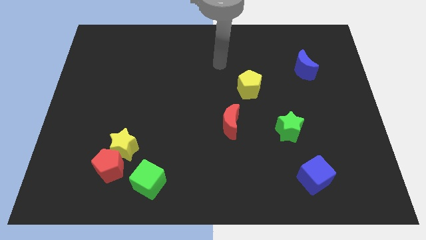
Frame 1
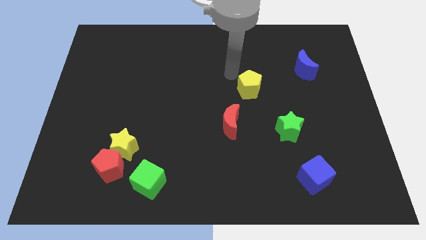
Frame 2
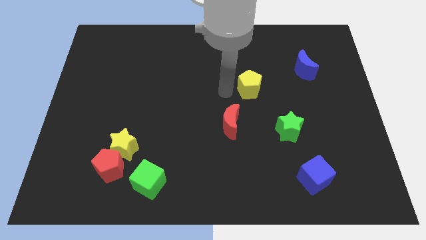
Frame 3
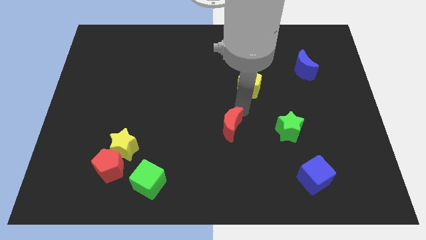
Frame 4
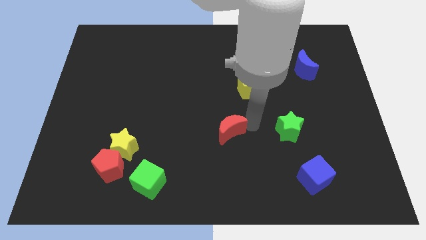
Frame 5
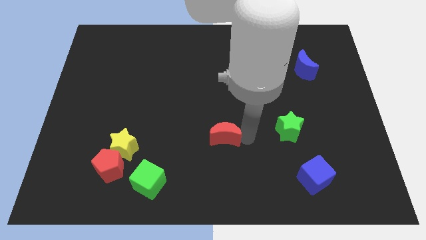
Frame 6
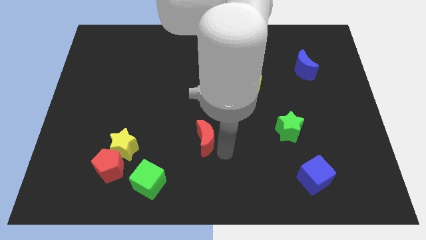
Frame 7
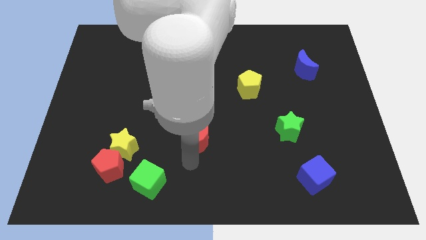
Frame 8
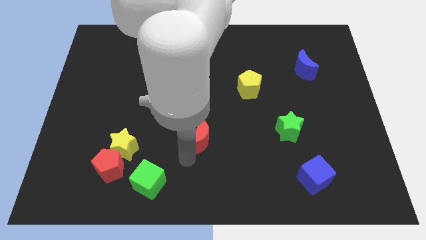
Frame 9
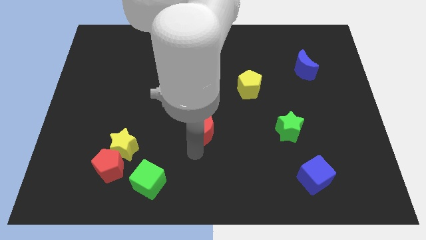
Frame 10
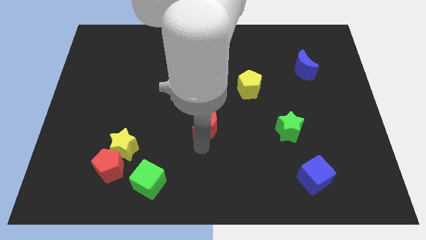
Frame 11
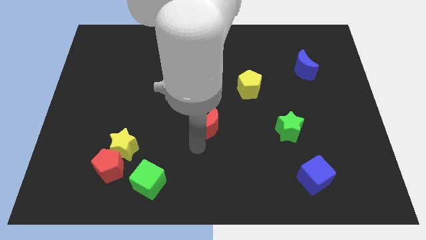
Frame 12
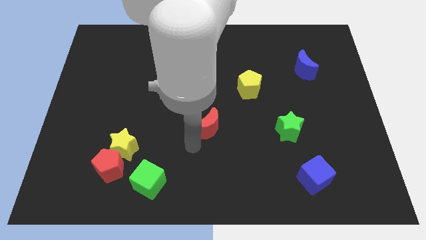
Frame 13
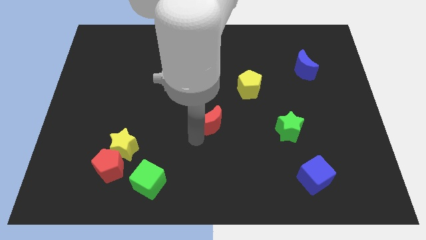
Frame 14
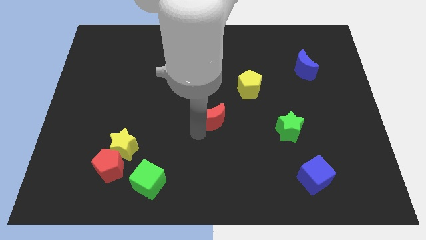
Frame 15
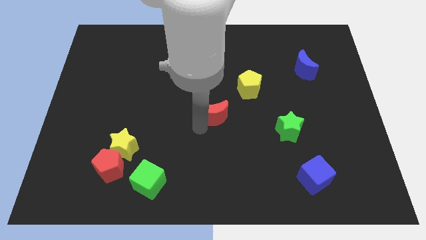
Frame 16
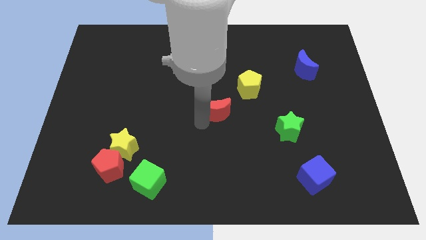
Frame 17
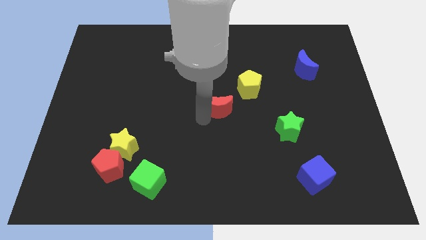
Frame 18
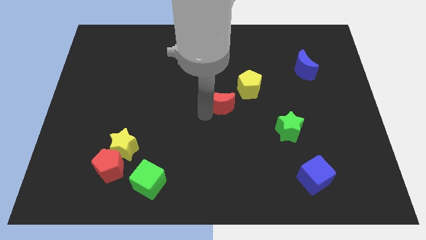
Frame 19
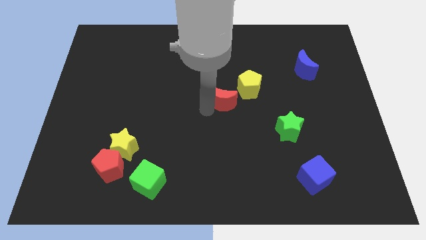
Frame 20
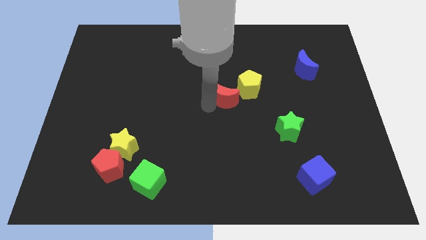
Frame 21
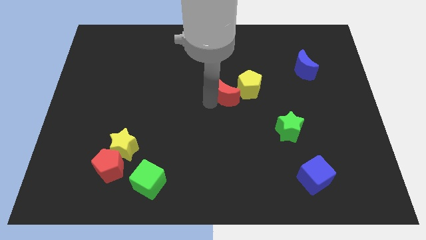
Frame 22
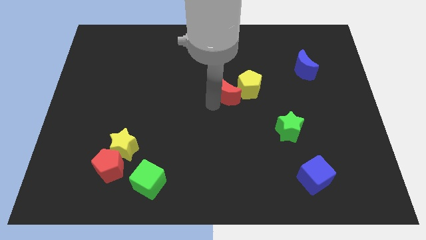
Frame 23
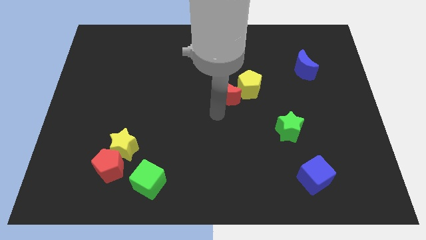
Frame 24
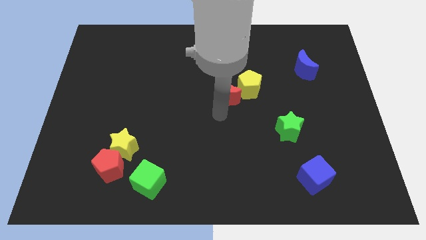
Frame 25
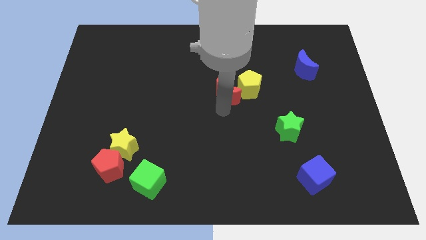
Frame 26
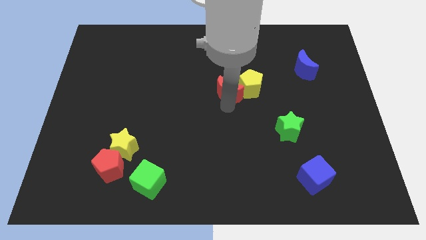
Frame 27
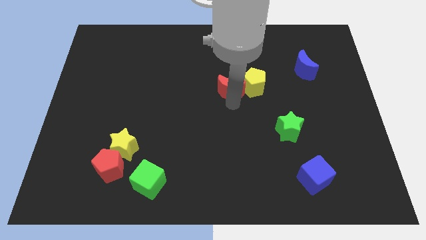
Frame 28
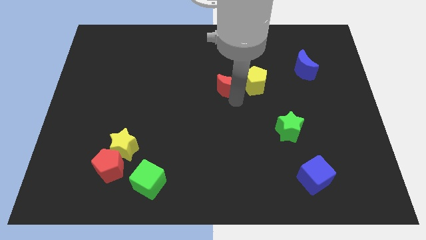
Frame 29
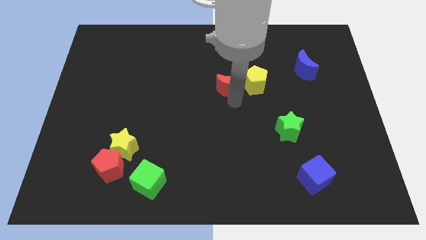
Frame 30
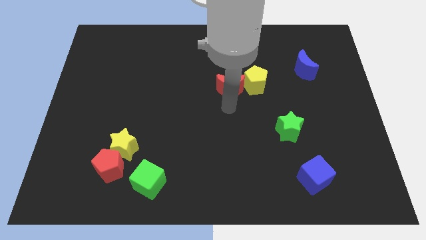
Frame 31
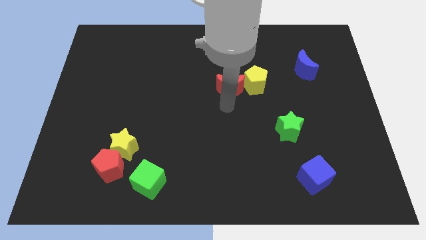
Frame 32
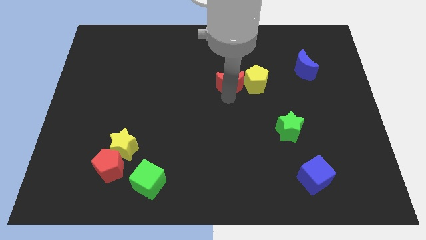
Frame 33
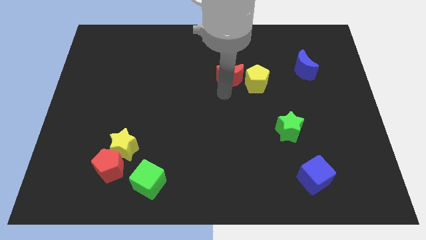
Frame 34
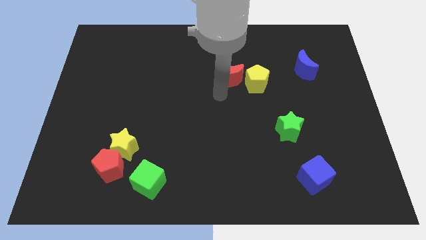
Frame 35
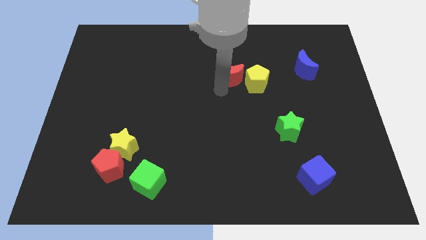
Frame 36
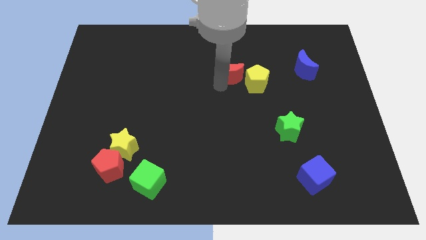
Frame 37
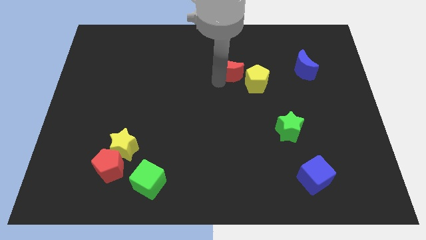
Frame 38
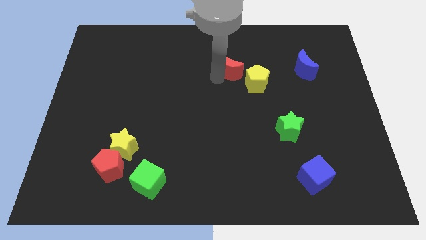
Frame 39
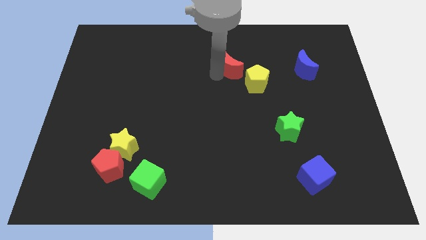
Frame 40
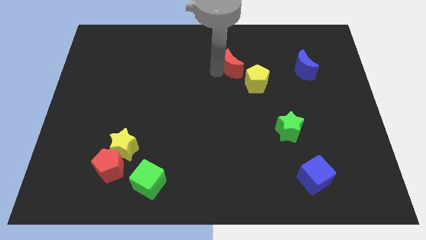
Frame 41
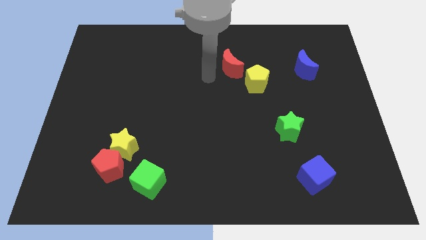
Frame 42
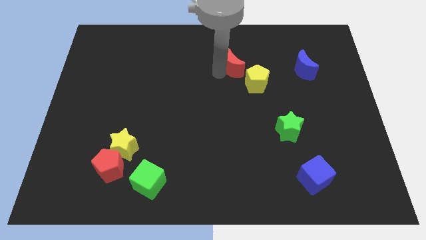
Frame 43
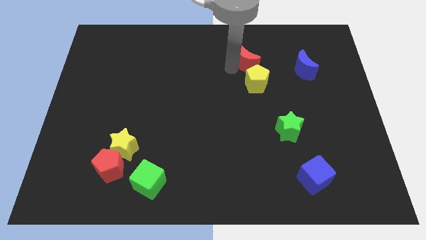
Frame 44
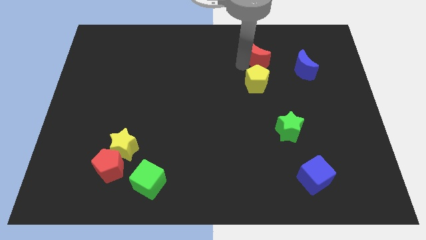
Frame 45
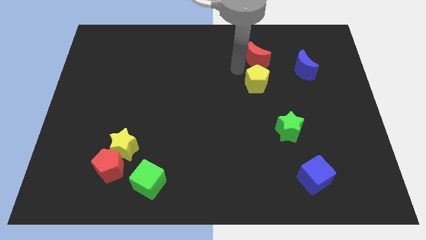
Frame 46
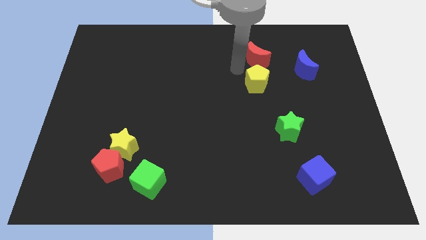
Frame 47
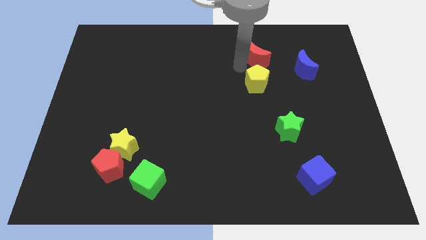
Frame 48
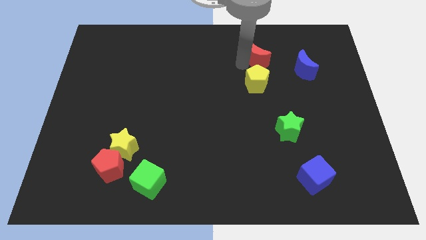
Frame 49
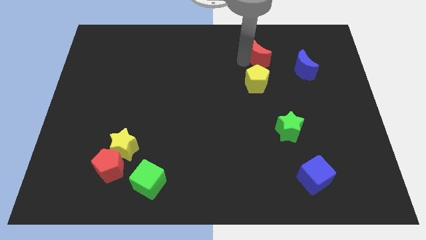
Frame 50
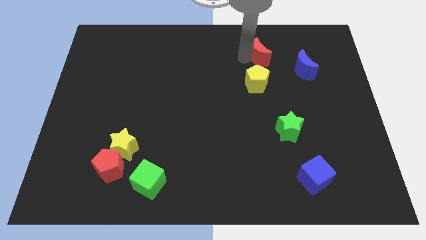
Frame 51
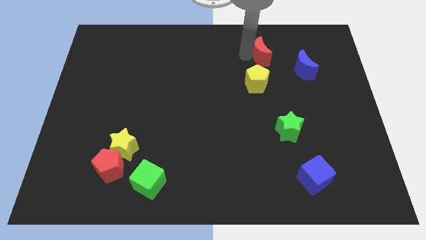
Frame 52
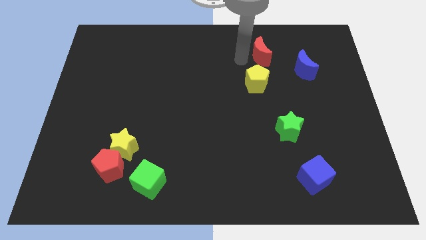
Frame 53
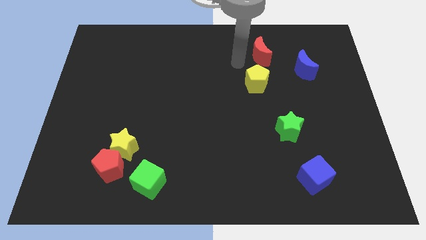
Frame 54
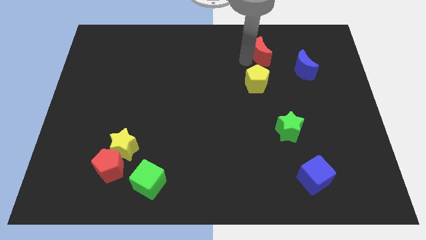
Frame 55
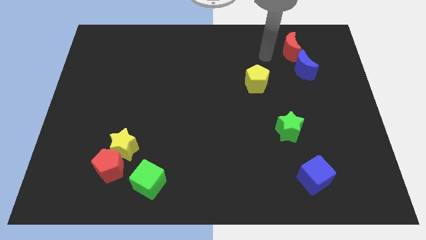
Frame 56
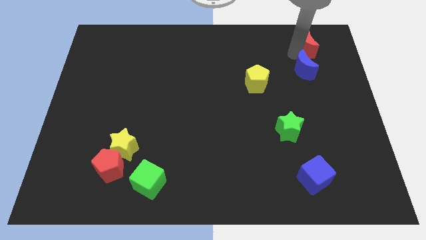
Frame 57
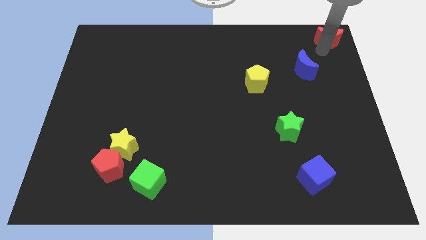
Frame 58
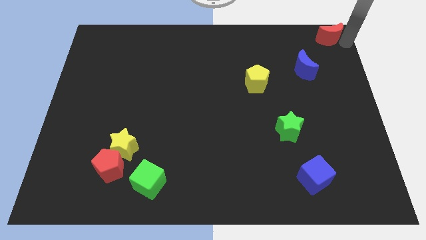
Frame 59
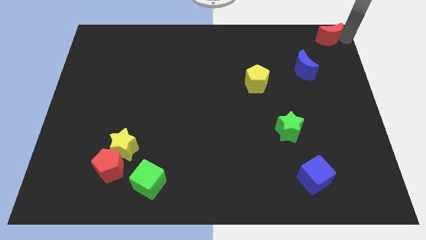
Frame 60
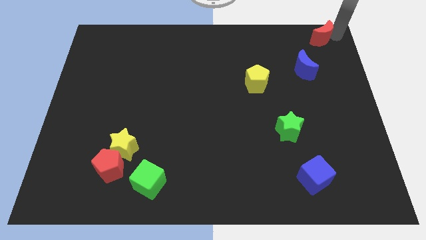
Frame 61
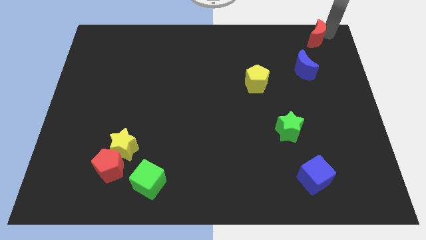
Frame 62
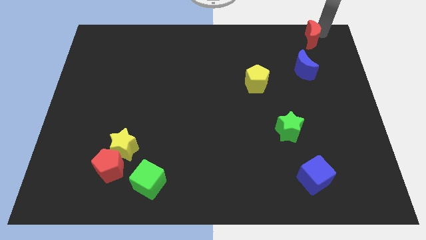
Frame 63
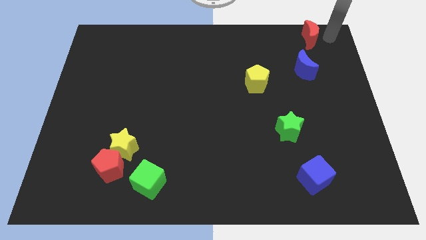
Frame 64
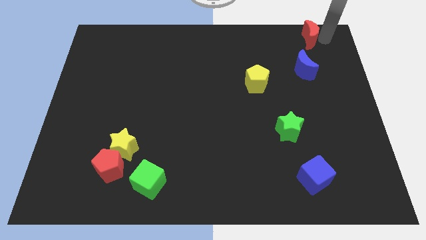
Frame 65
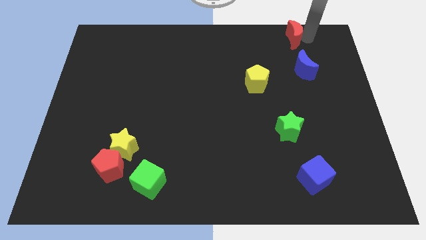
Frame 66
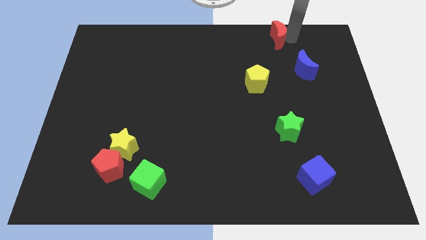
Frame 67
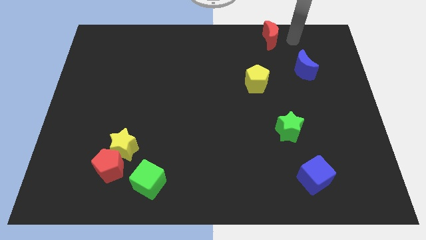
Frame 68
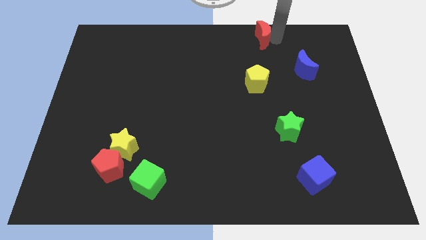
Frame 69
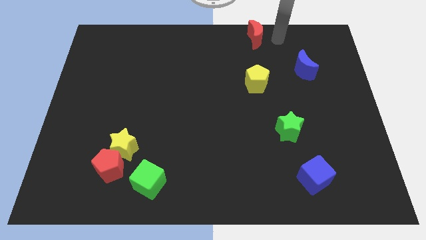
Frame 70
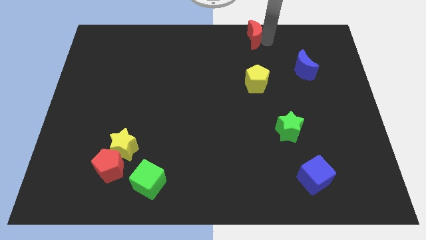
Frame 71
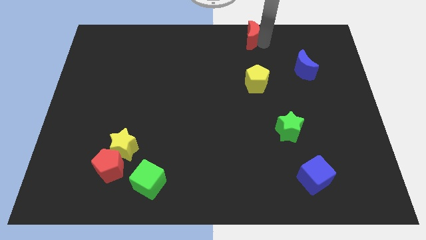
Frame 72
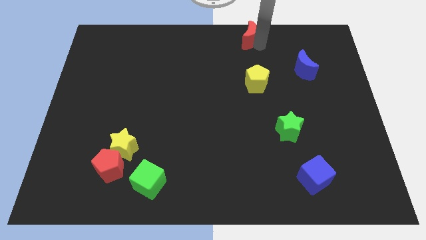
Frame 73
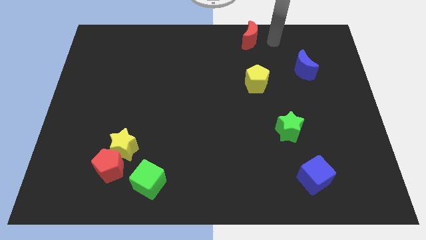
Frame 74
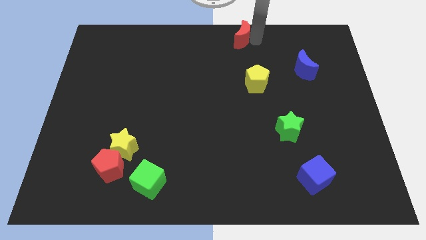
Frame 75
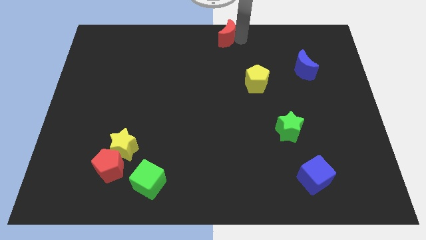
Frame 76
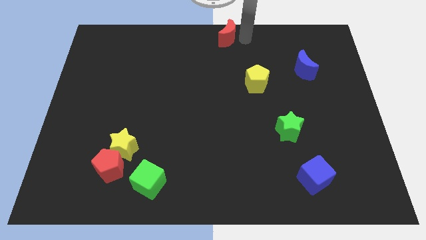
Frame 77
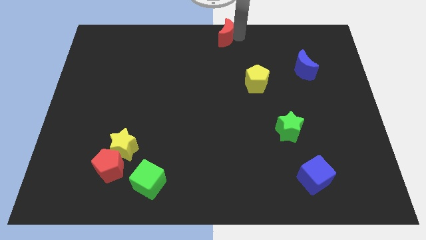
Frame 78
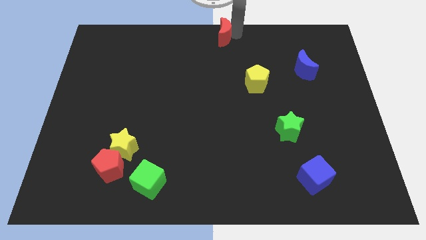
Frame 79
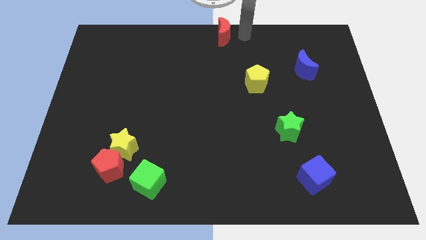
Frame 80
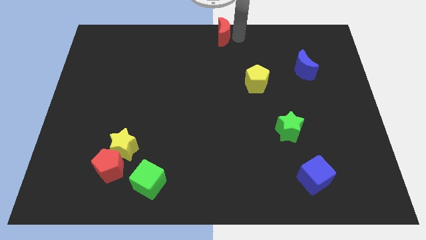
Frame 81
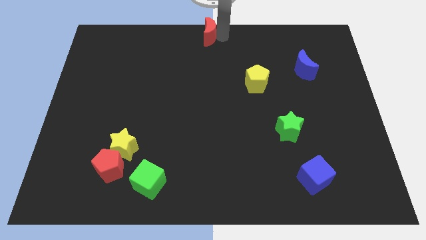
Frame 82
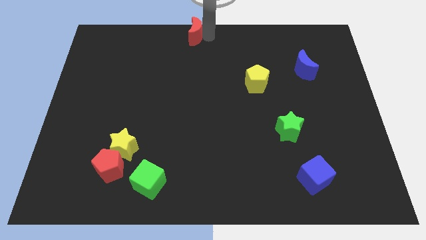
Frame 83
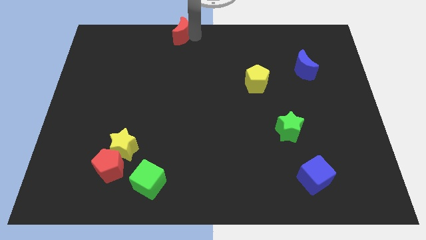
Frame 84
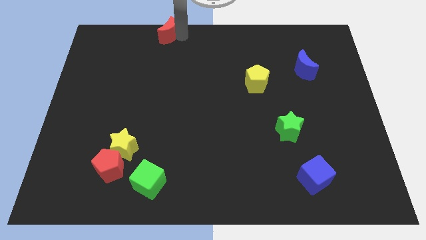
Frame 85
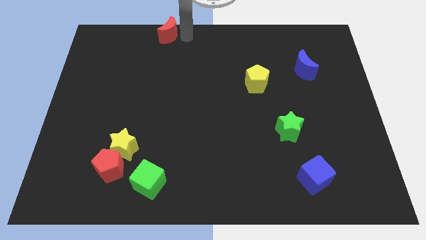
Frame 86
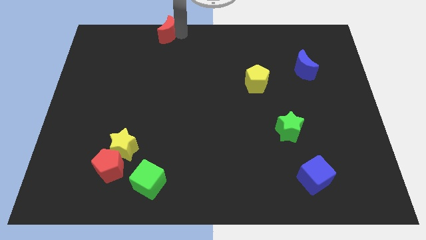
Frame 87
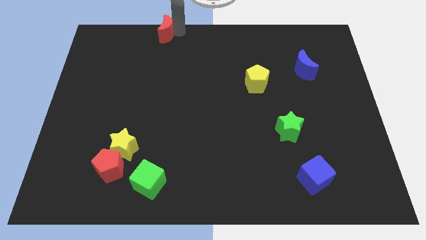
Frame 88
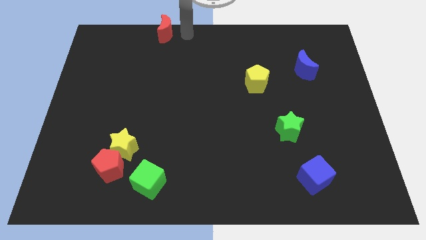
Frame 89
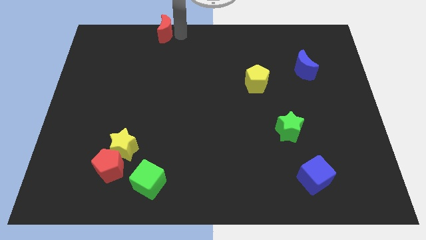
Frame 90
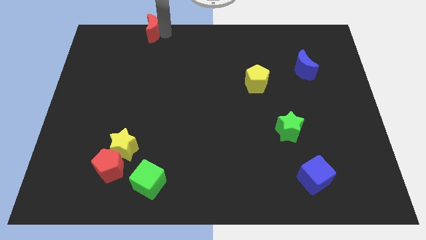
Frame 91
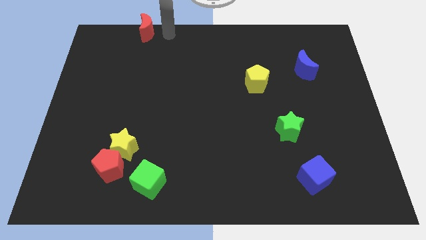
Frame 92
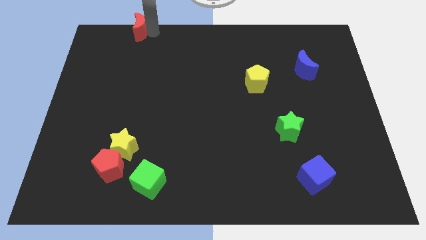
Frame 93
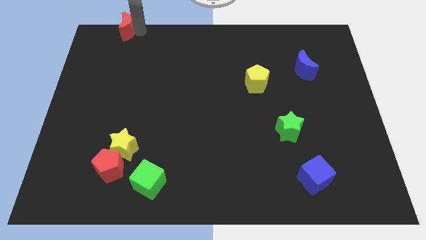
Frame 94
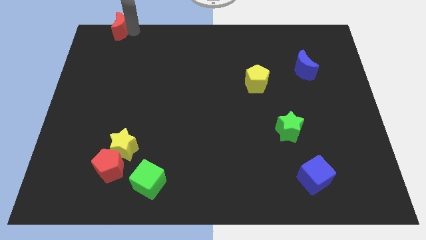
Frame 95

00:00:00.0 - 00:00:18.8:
put the red moon to the top left
